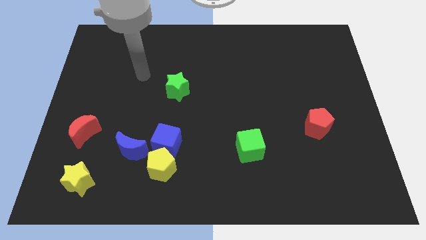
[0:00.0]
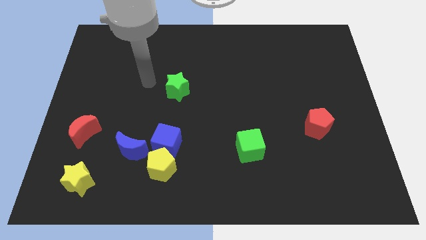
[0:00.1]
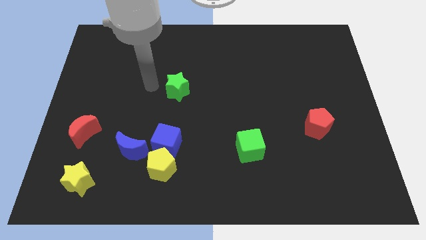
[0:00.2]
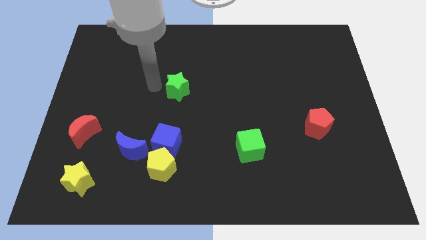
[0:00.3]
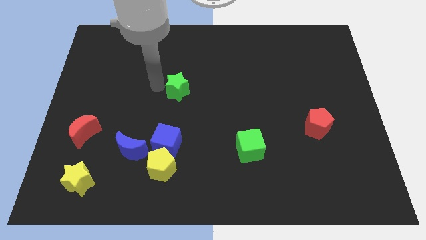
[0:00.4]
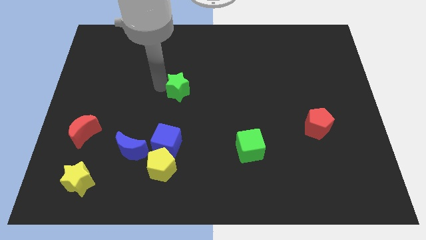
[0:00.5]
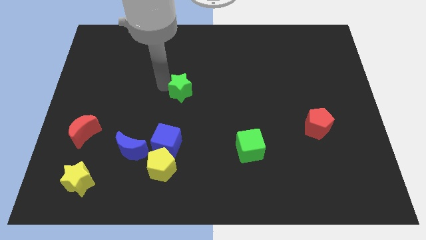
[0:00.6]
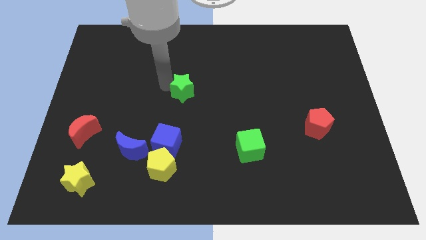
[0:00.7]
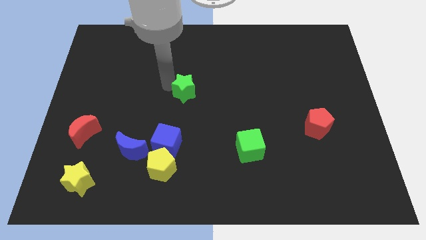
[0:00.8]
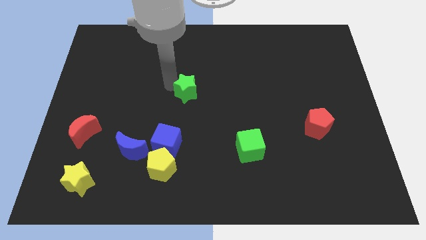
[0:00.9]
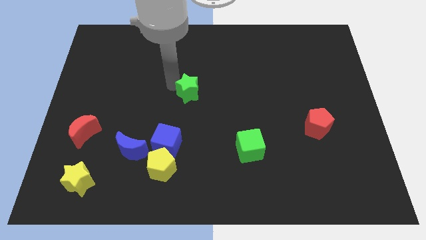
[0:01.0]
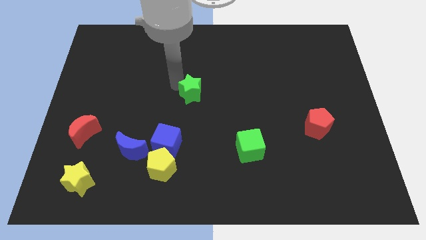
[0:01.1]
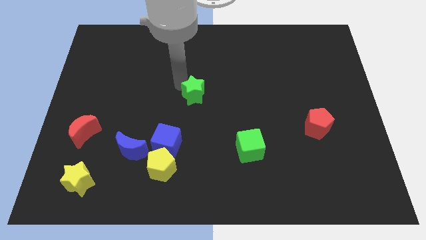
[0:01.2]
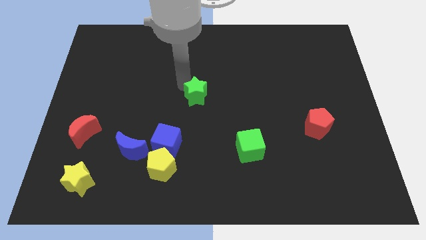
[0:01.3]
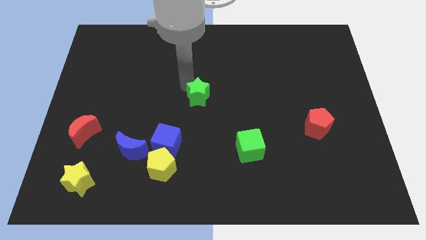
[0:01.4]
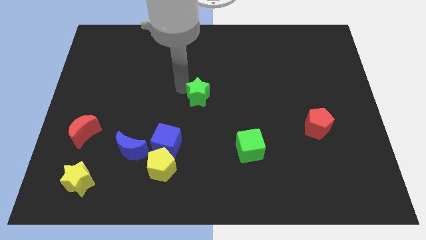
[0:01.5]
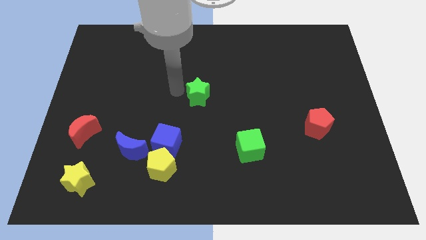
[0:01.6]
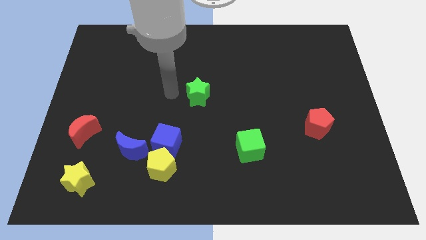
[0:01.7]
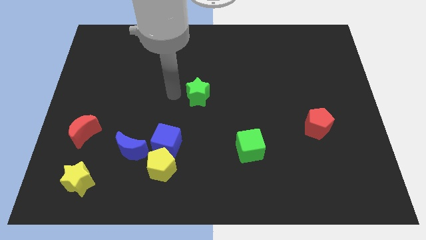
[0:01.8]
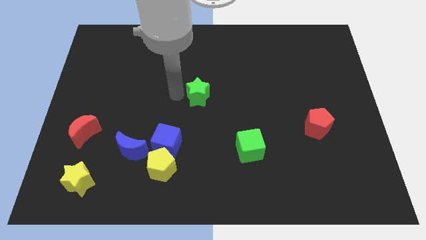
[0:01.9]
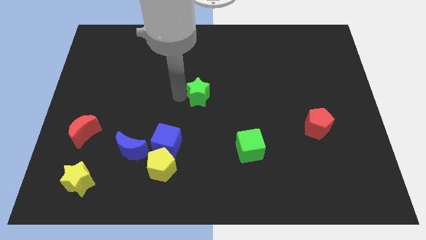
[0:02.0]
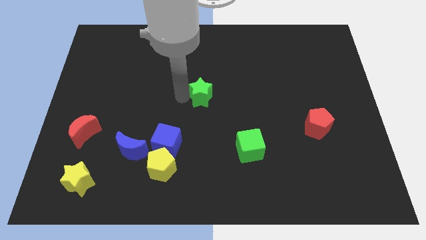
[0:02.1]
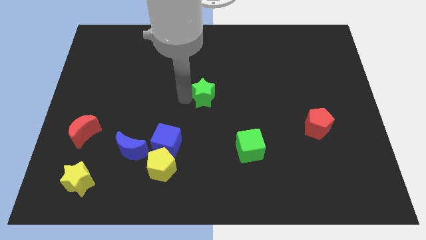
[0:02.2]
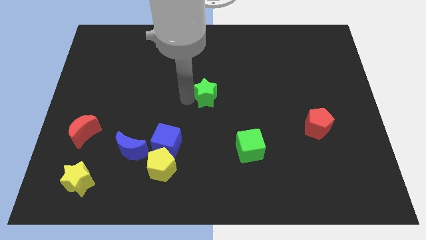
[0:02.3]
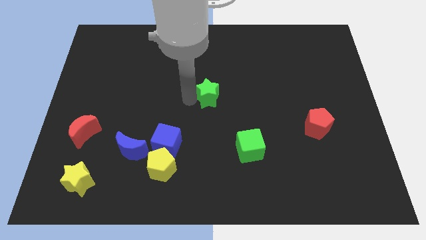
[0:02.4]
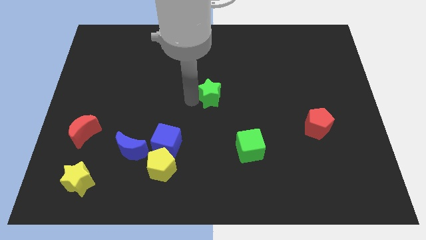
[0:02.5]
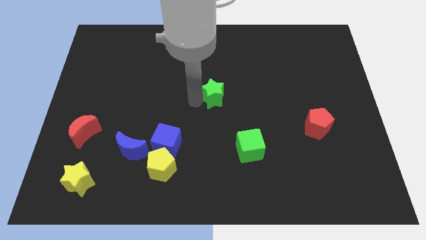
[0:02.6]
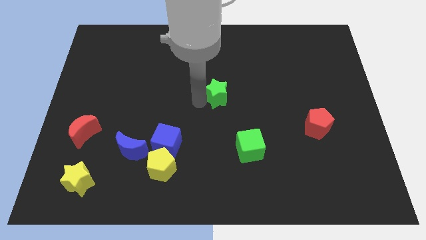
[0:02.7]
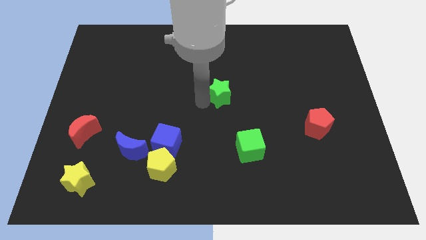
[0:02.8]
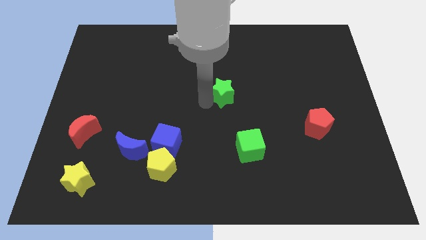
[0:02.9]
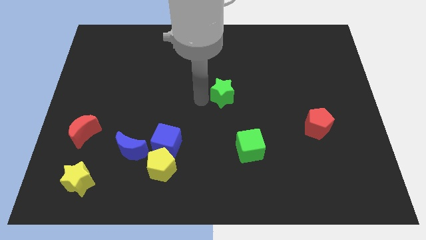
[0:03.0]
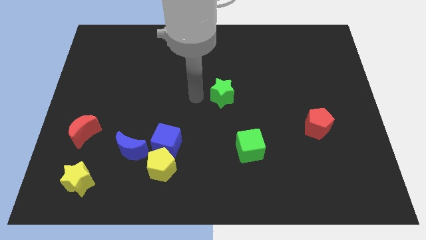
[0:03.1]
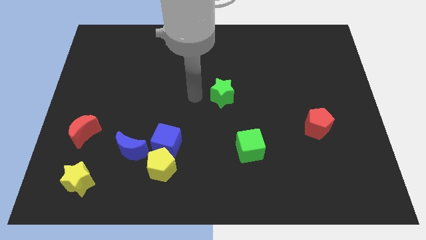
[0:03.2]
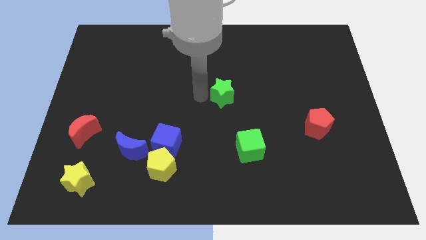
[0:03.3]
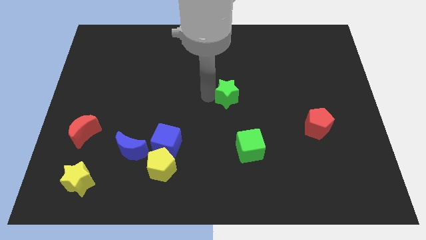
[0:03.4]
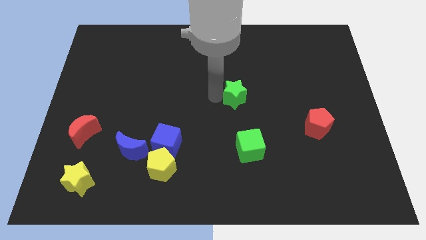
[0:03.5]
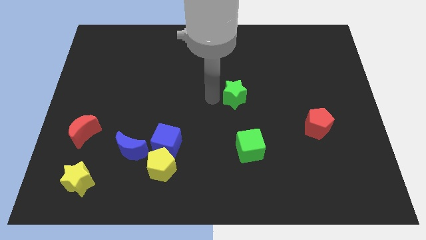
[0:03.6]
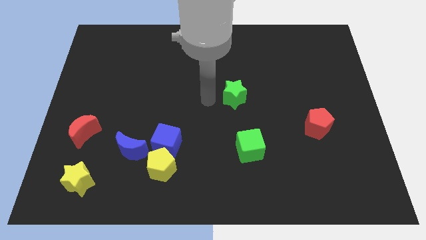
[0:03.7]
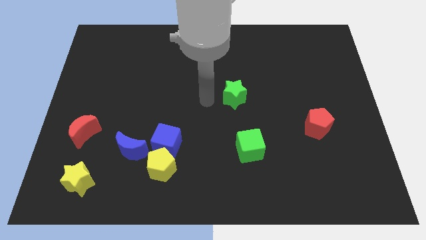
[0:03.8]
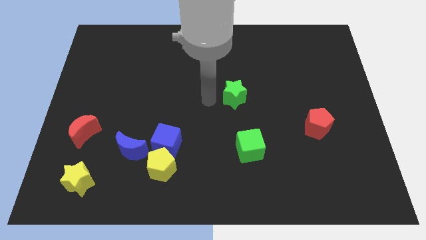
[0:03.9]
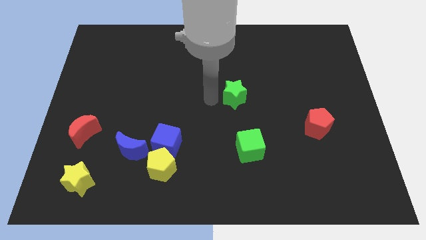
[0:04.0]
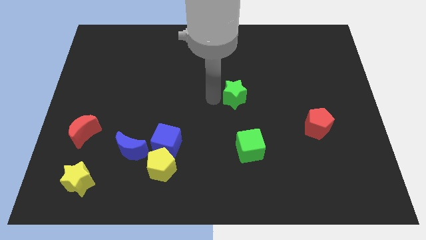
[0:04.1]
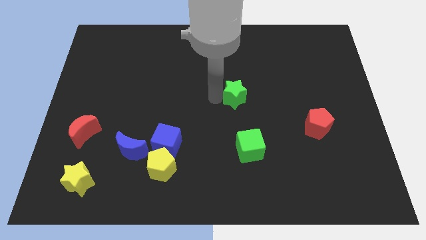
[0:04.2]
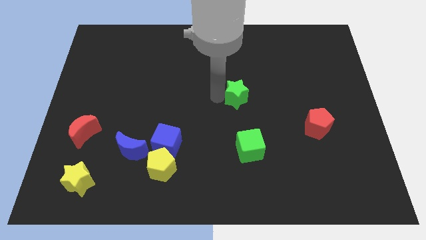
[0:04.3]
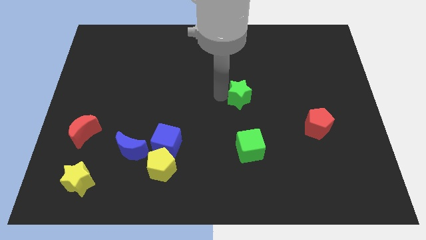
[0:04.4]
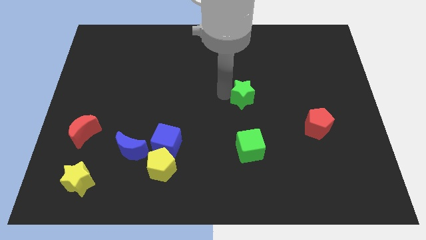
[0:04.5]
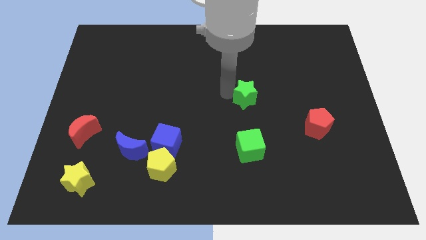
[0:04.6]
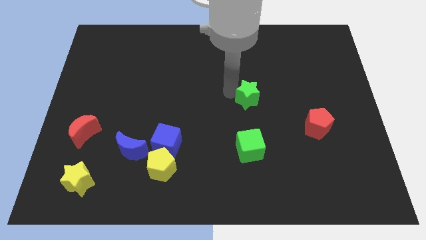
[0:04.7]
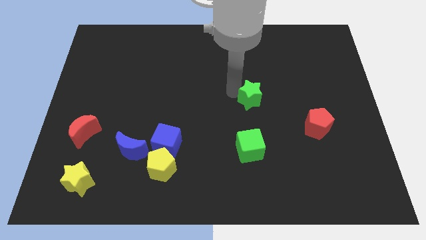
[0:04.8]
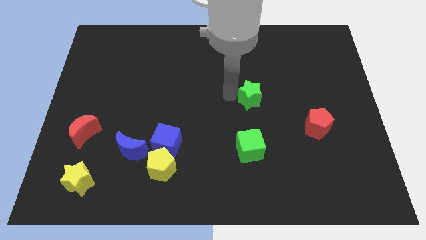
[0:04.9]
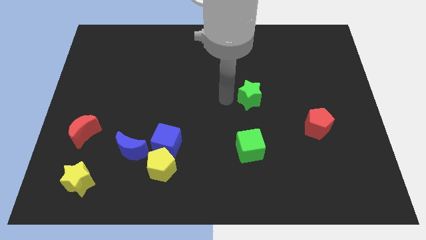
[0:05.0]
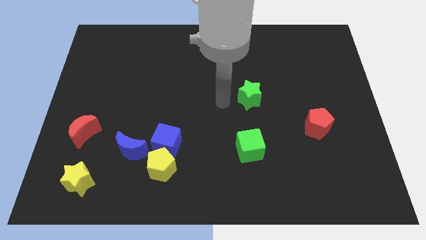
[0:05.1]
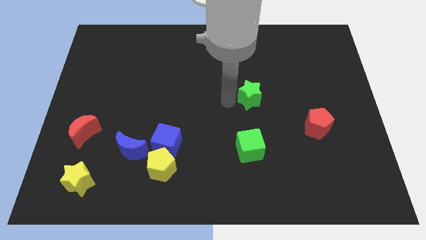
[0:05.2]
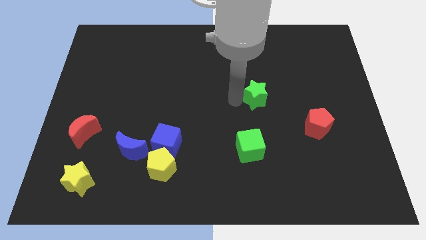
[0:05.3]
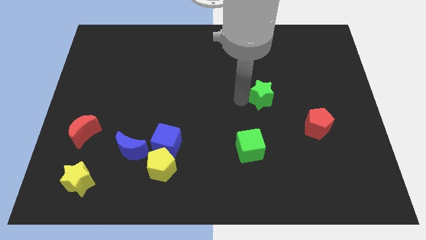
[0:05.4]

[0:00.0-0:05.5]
slide the green star right

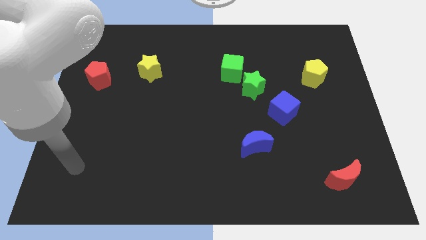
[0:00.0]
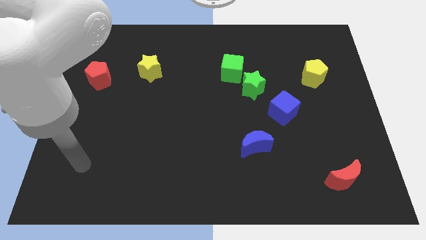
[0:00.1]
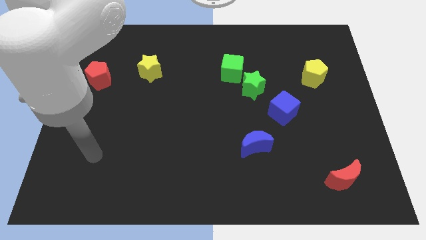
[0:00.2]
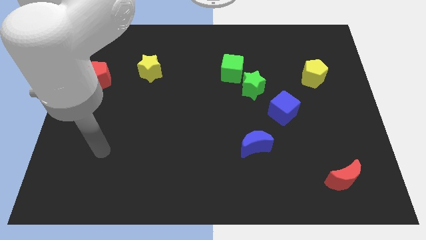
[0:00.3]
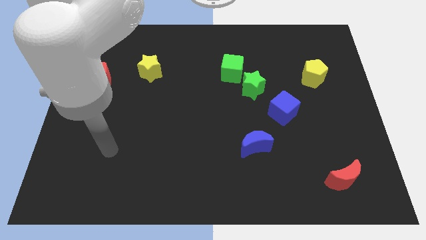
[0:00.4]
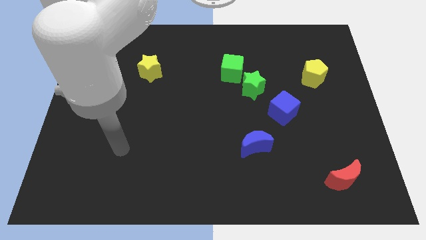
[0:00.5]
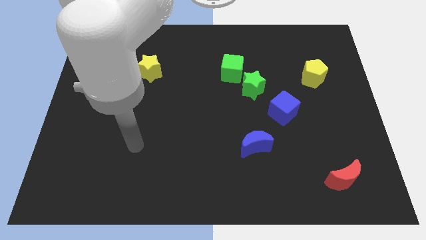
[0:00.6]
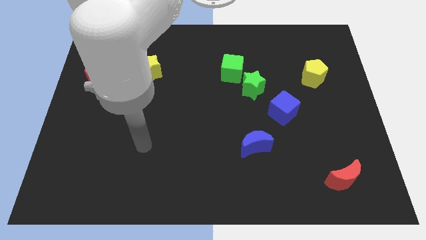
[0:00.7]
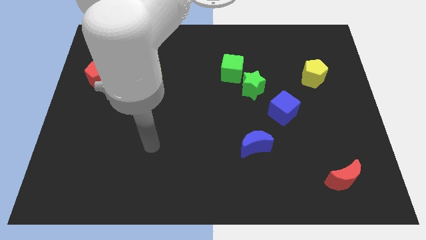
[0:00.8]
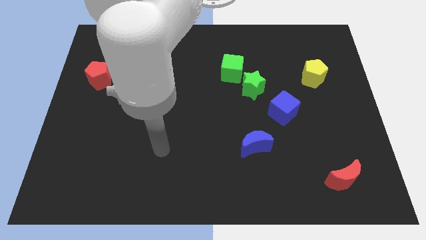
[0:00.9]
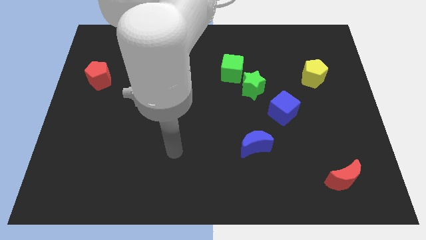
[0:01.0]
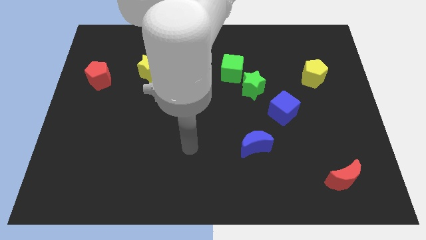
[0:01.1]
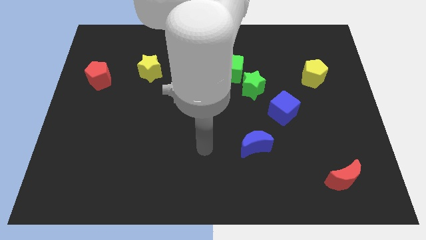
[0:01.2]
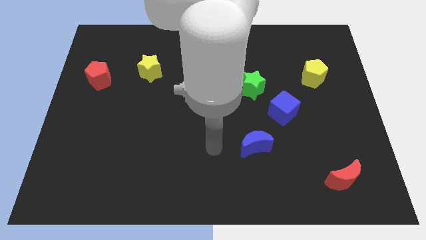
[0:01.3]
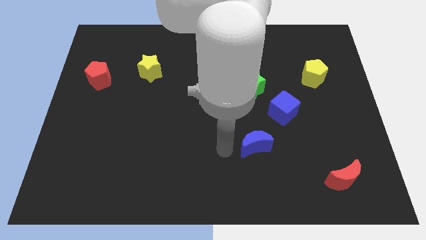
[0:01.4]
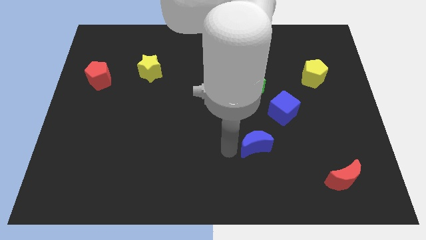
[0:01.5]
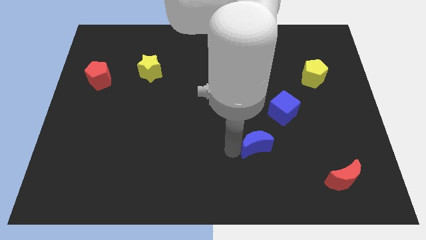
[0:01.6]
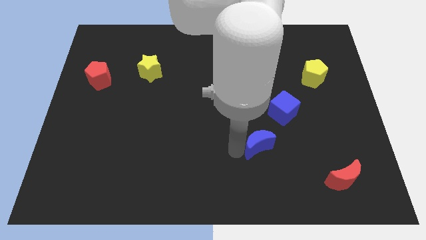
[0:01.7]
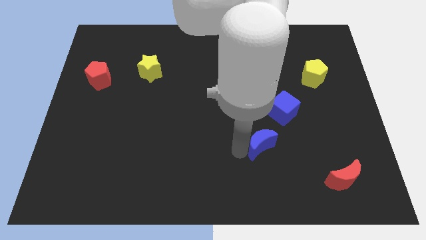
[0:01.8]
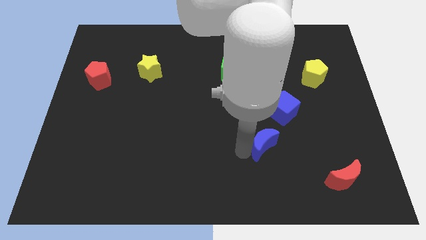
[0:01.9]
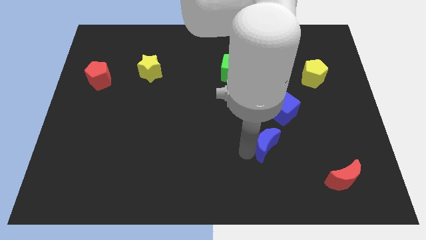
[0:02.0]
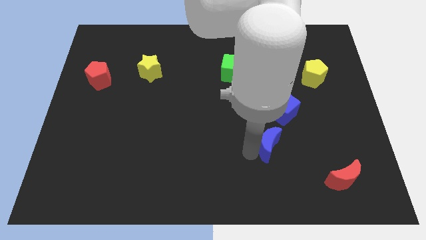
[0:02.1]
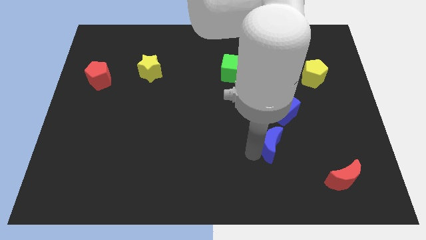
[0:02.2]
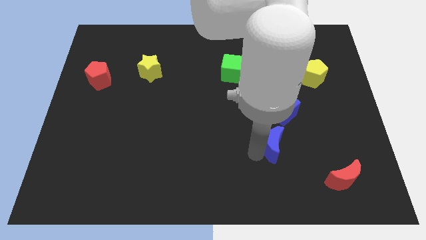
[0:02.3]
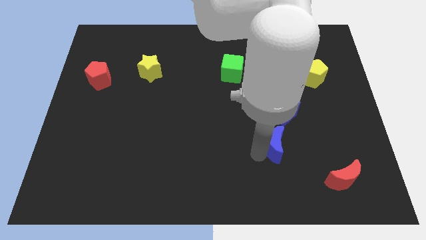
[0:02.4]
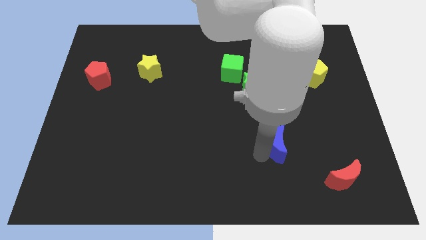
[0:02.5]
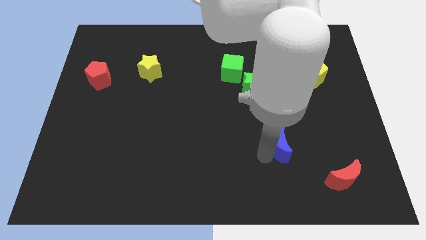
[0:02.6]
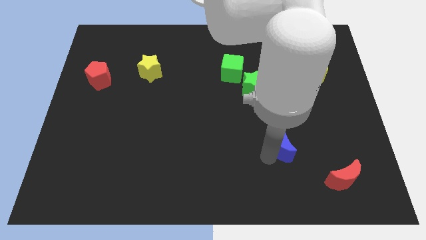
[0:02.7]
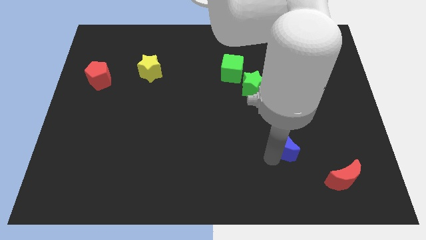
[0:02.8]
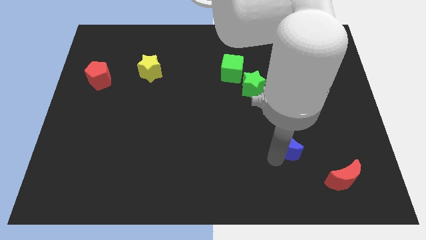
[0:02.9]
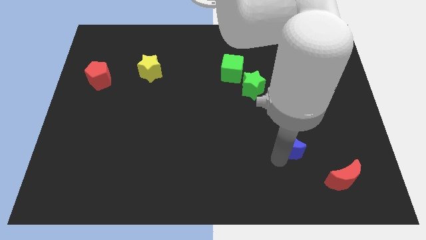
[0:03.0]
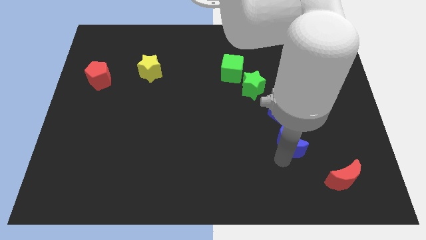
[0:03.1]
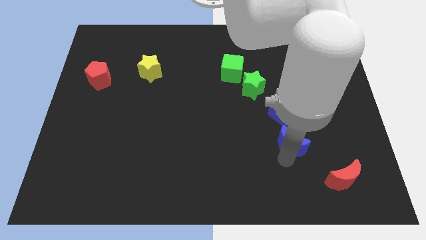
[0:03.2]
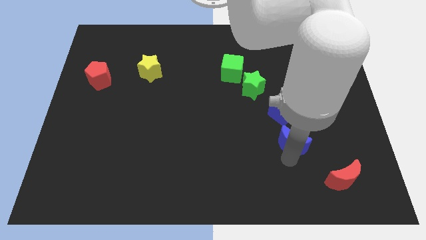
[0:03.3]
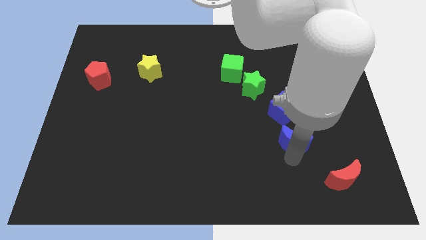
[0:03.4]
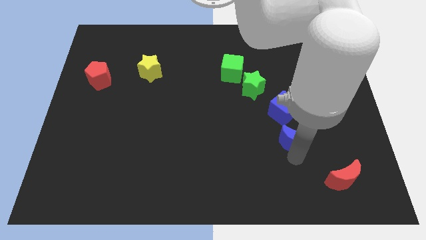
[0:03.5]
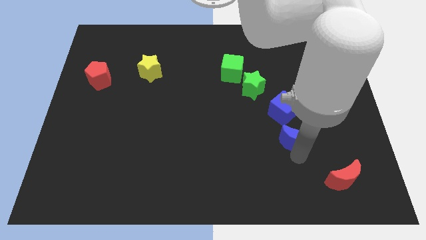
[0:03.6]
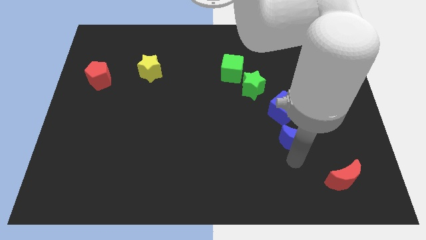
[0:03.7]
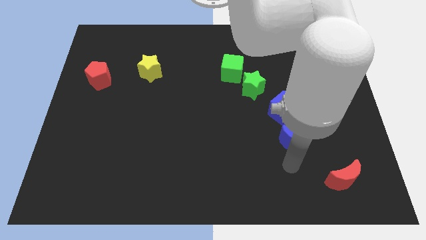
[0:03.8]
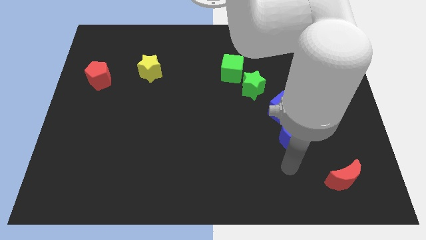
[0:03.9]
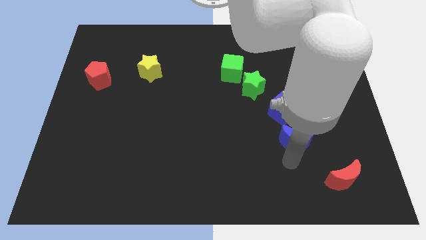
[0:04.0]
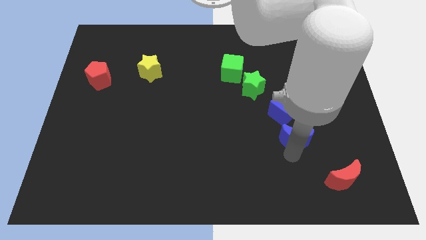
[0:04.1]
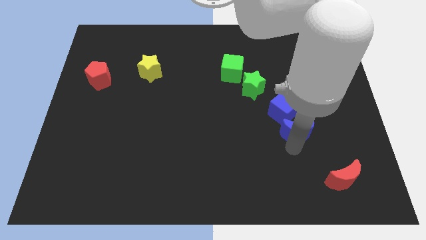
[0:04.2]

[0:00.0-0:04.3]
move the blue moon diagonally up and to the right a bit
